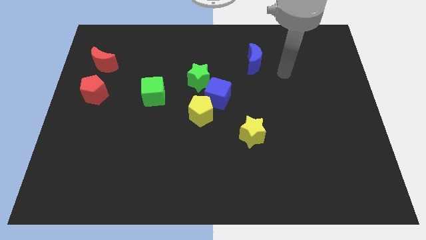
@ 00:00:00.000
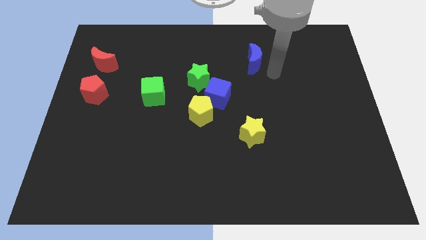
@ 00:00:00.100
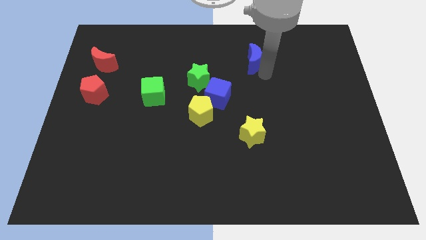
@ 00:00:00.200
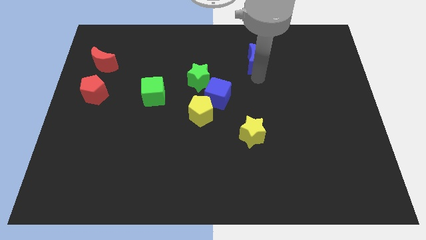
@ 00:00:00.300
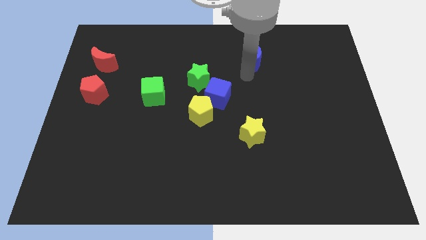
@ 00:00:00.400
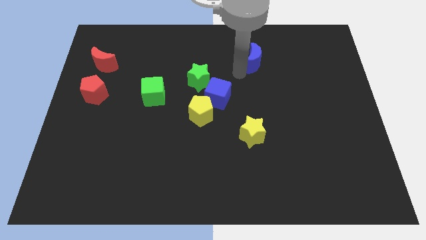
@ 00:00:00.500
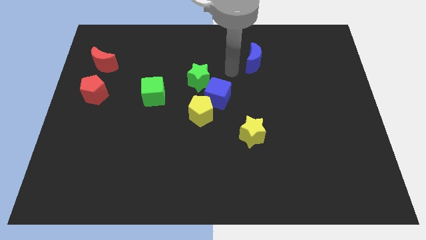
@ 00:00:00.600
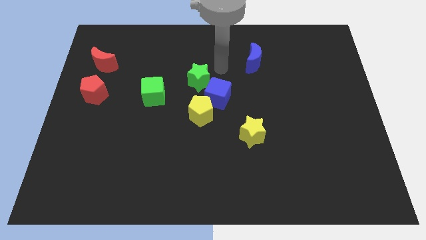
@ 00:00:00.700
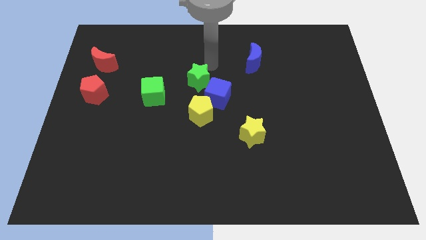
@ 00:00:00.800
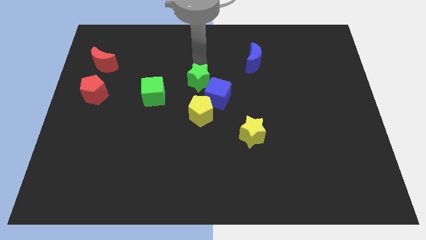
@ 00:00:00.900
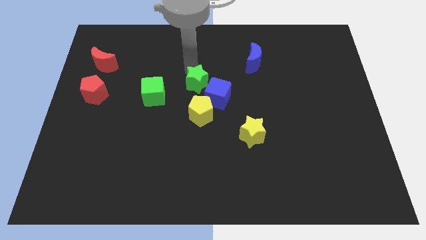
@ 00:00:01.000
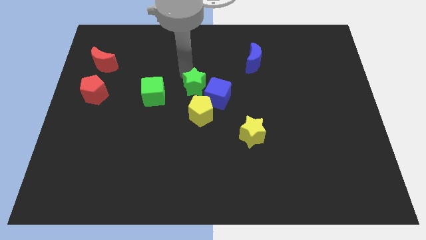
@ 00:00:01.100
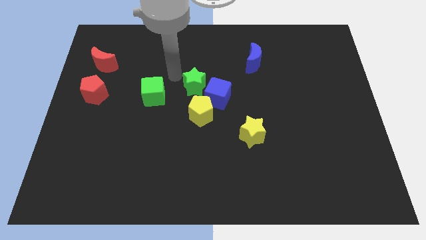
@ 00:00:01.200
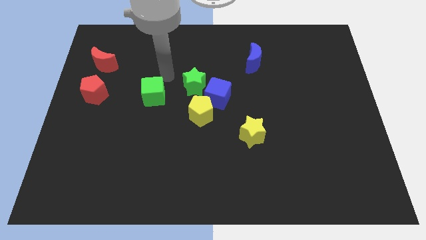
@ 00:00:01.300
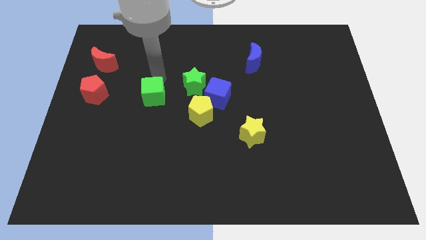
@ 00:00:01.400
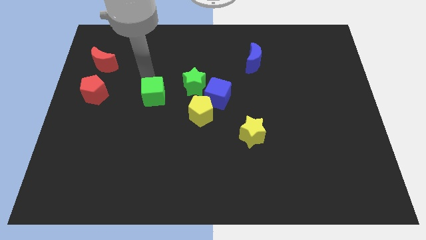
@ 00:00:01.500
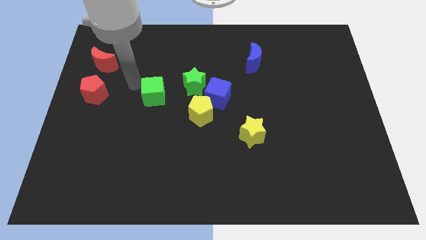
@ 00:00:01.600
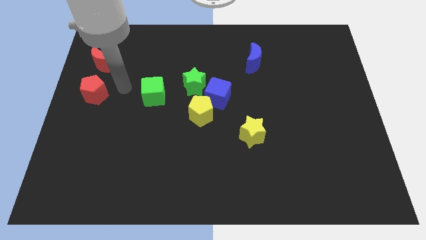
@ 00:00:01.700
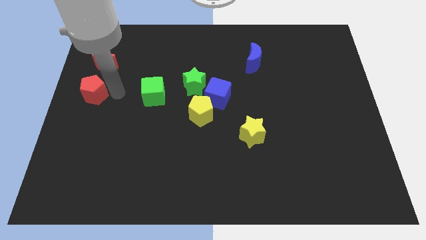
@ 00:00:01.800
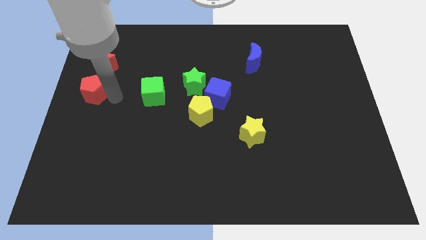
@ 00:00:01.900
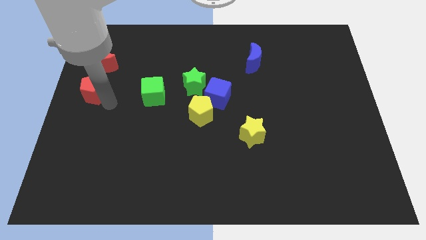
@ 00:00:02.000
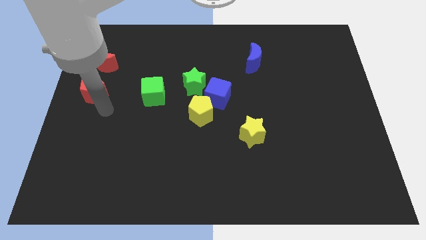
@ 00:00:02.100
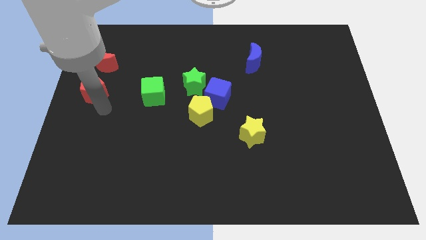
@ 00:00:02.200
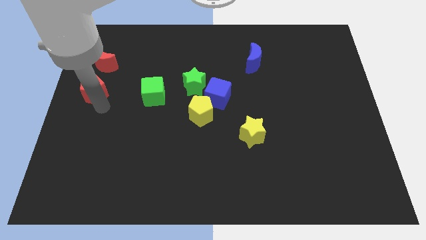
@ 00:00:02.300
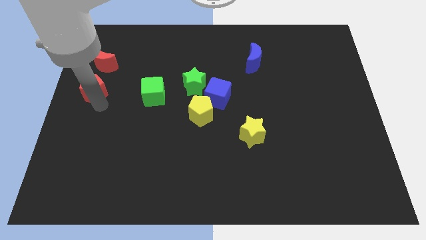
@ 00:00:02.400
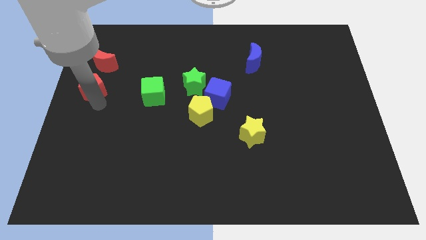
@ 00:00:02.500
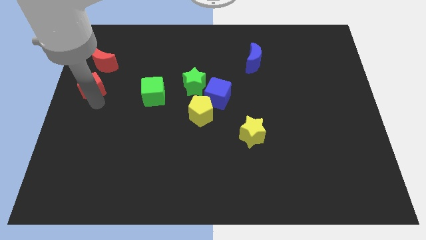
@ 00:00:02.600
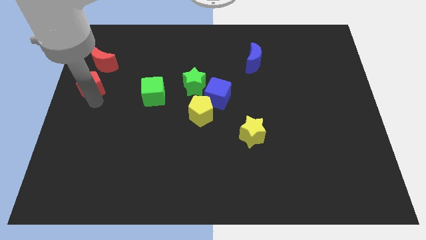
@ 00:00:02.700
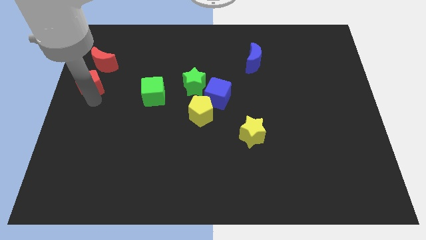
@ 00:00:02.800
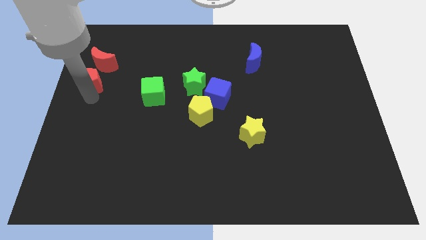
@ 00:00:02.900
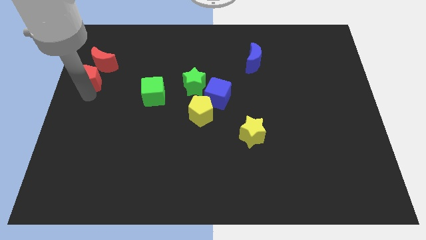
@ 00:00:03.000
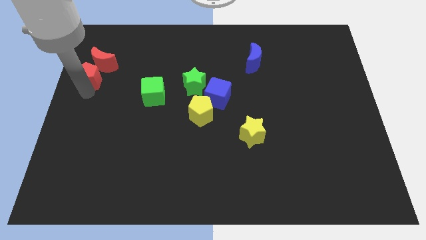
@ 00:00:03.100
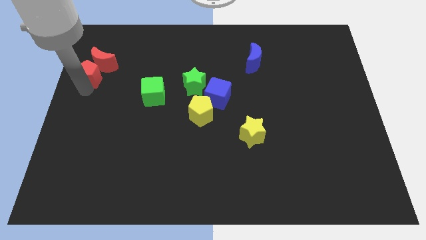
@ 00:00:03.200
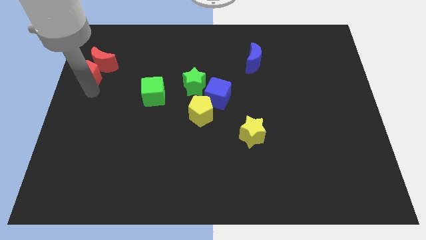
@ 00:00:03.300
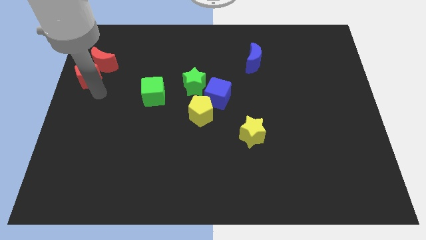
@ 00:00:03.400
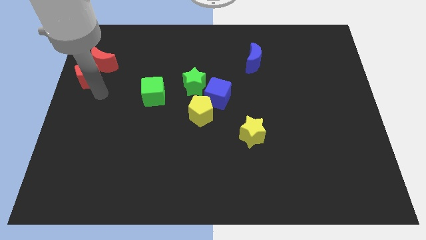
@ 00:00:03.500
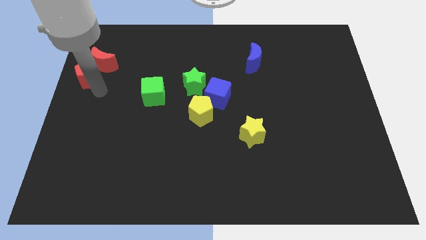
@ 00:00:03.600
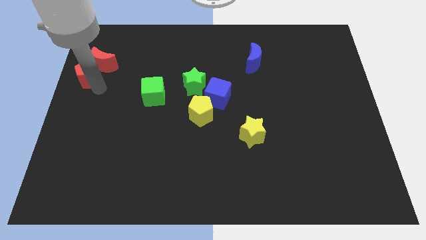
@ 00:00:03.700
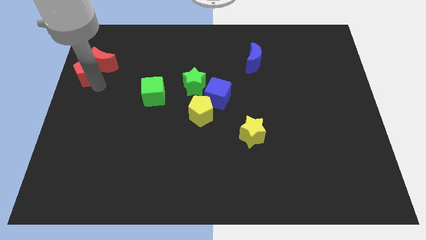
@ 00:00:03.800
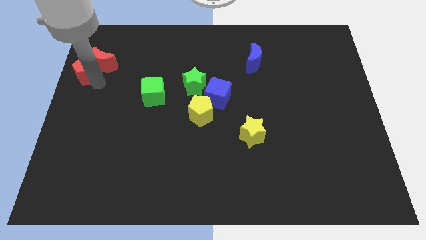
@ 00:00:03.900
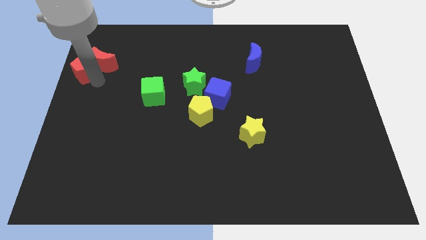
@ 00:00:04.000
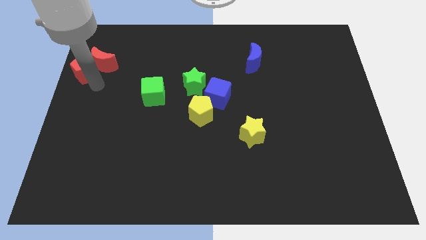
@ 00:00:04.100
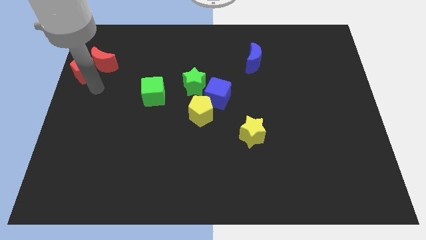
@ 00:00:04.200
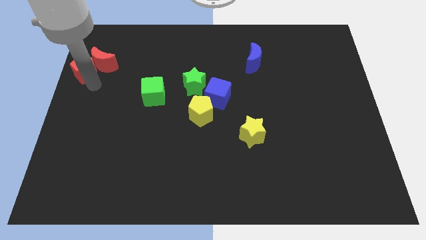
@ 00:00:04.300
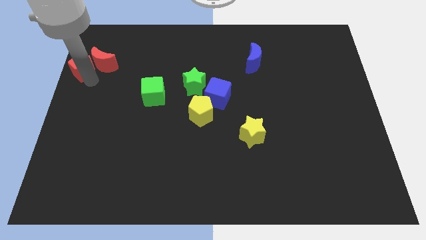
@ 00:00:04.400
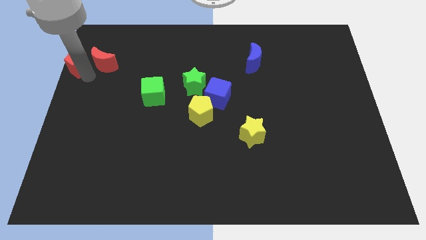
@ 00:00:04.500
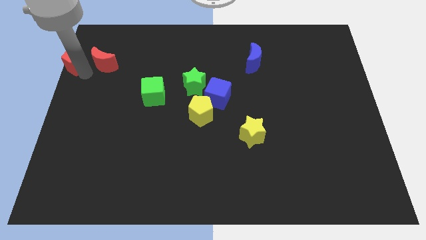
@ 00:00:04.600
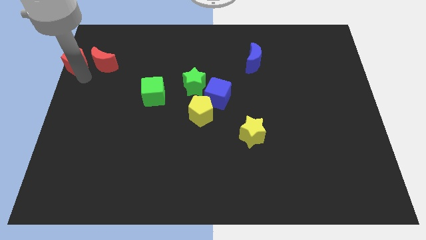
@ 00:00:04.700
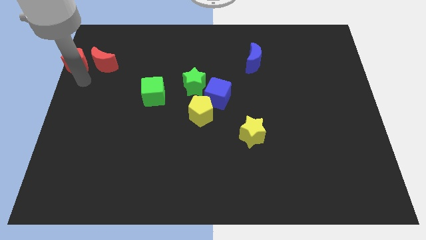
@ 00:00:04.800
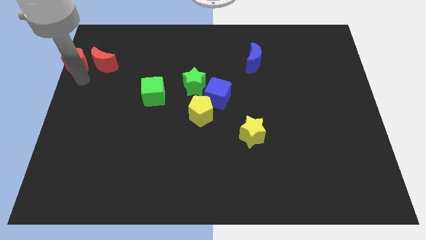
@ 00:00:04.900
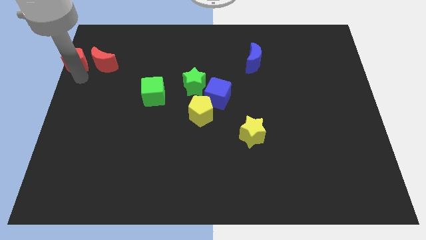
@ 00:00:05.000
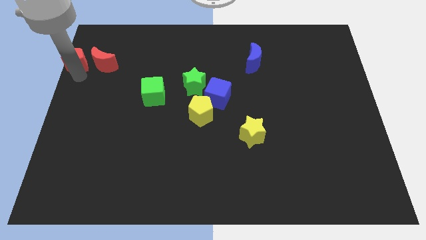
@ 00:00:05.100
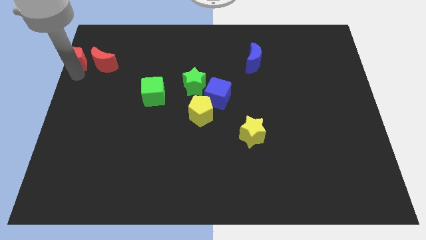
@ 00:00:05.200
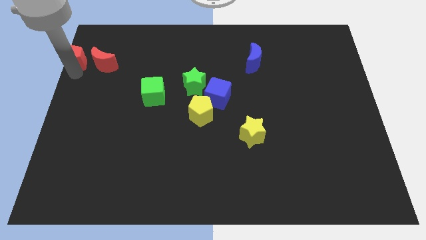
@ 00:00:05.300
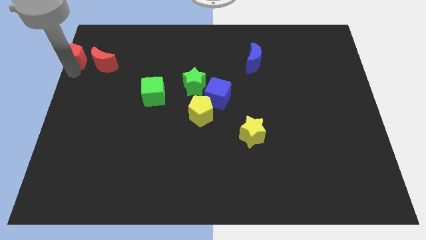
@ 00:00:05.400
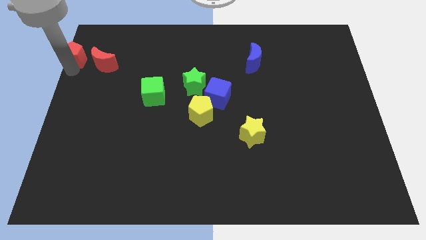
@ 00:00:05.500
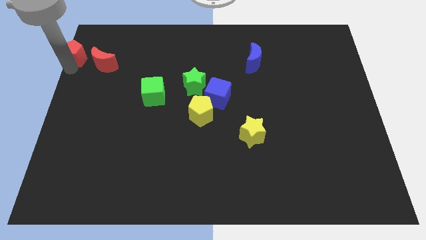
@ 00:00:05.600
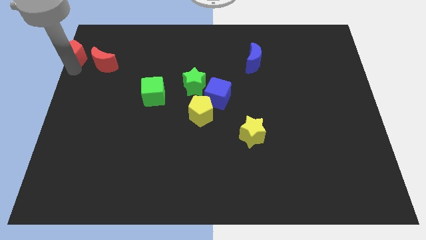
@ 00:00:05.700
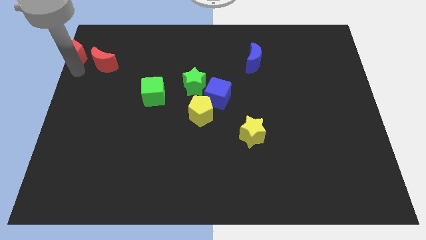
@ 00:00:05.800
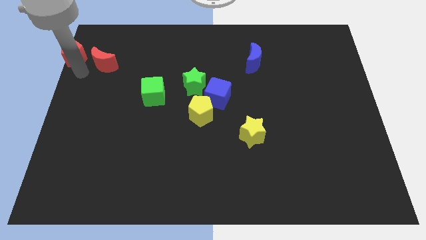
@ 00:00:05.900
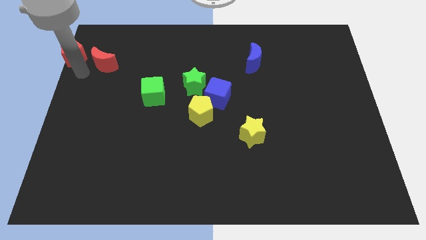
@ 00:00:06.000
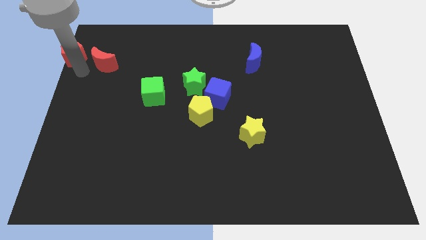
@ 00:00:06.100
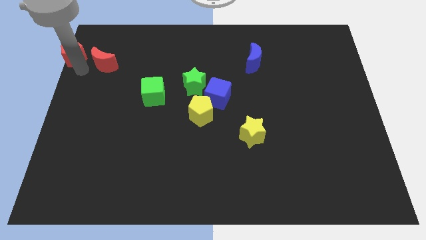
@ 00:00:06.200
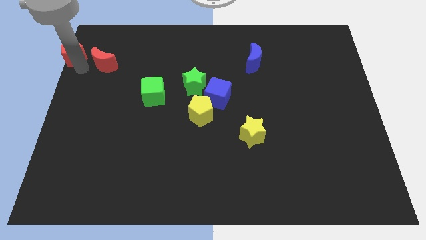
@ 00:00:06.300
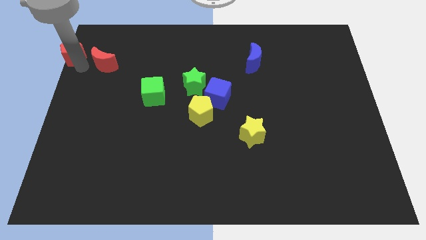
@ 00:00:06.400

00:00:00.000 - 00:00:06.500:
put the red pentagon to the upper left corner
